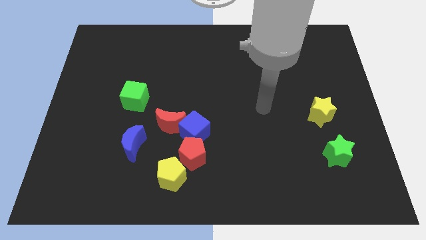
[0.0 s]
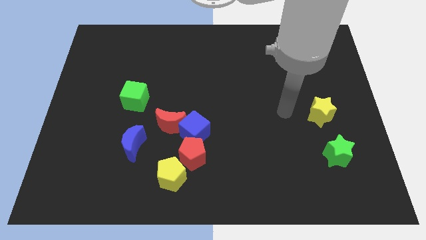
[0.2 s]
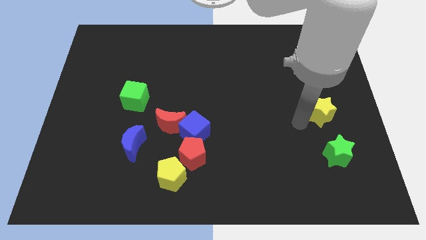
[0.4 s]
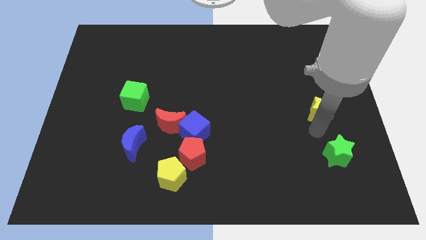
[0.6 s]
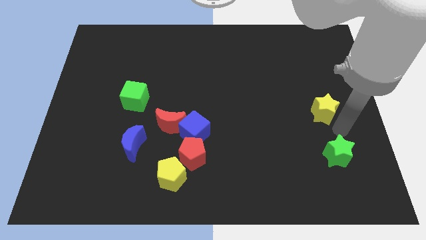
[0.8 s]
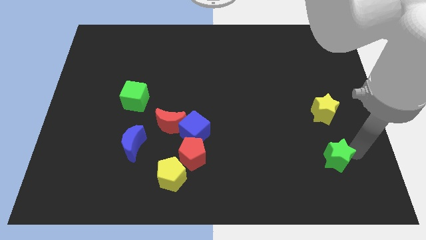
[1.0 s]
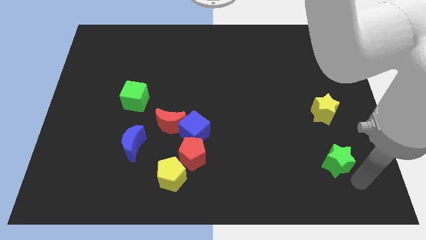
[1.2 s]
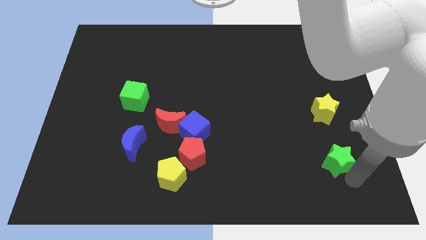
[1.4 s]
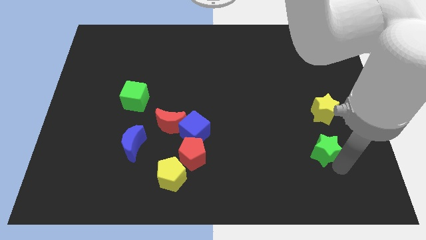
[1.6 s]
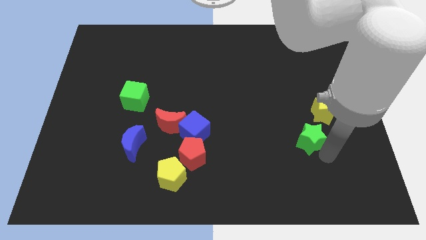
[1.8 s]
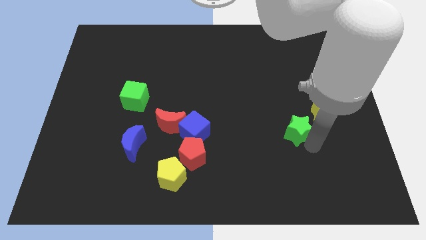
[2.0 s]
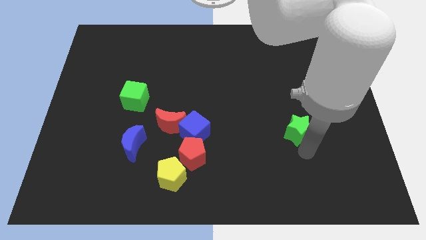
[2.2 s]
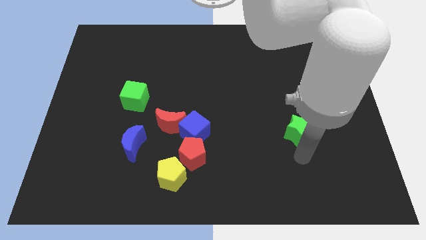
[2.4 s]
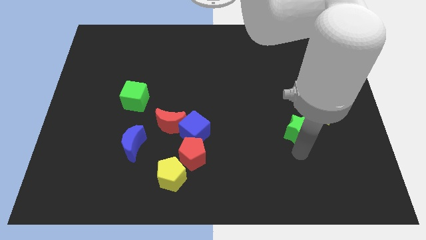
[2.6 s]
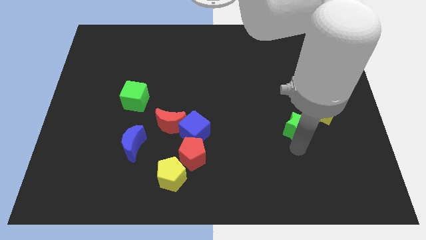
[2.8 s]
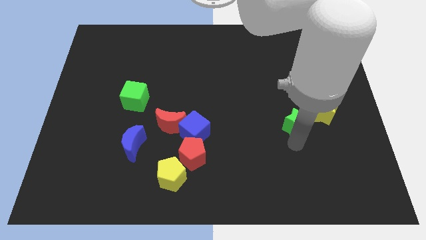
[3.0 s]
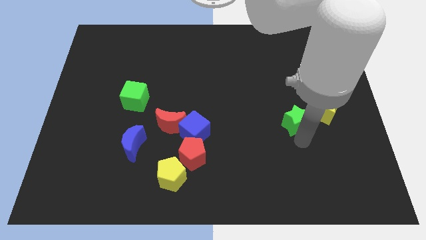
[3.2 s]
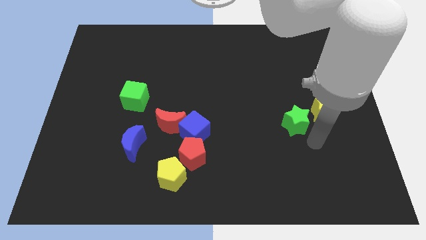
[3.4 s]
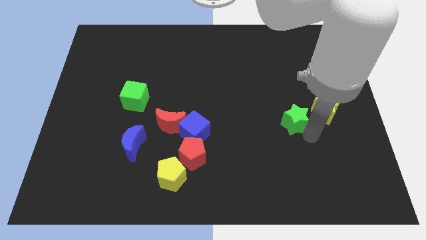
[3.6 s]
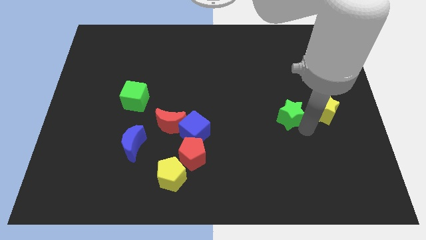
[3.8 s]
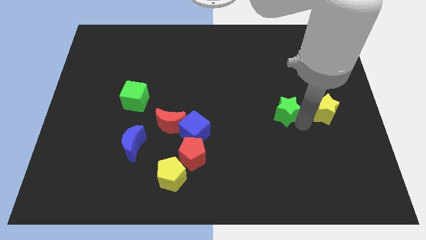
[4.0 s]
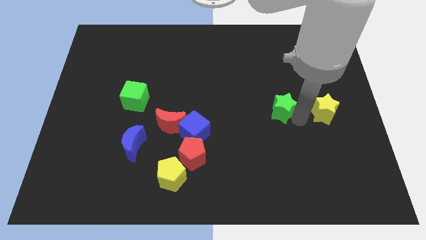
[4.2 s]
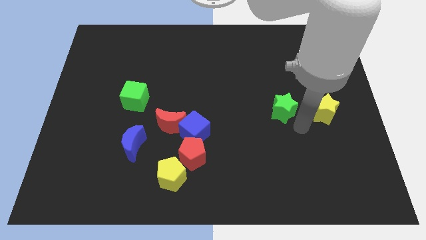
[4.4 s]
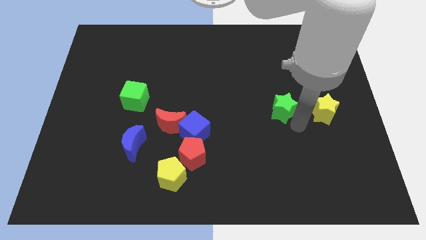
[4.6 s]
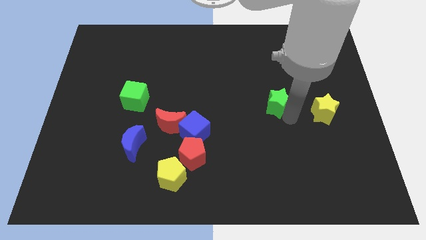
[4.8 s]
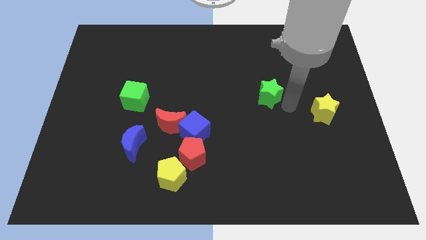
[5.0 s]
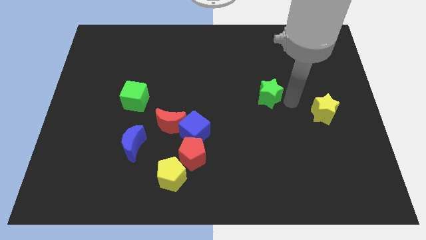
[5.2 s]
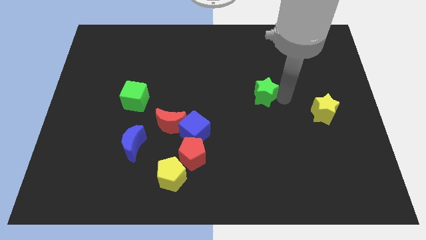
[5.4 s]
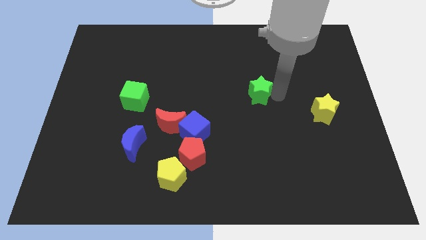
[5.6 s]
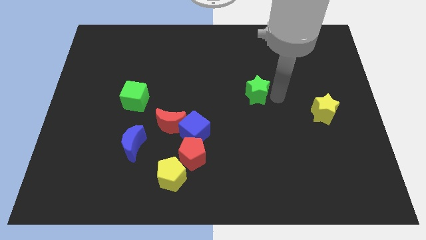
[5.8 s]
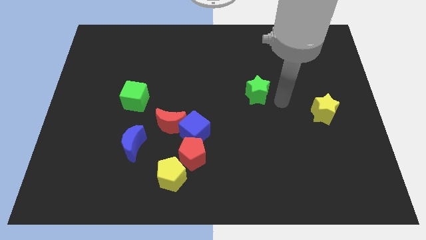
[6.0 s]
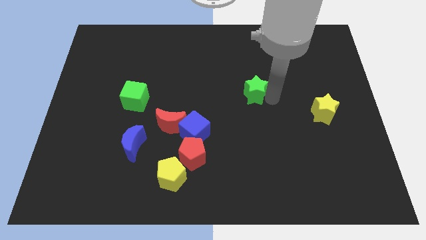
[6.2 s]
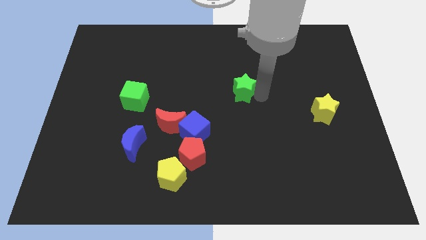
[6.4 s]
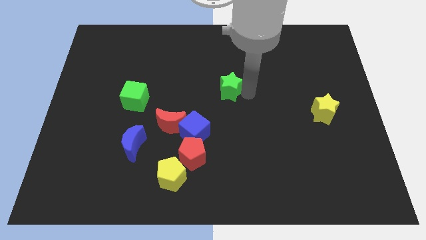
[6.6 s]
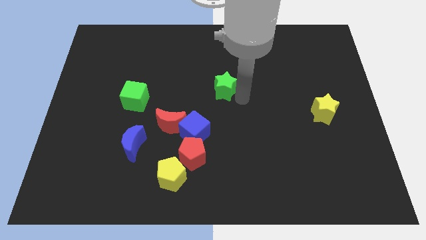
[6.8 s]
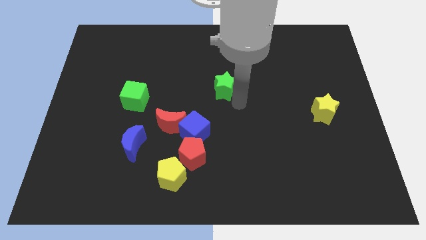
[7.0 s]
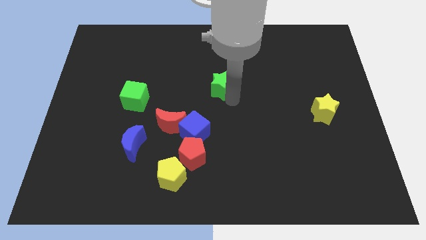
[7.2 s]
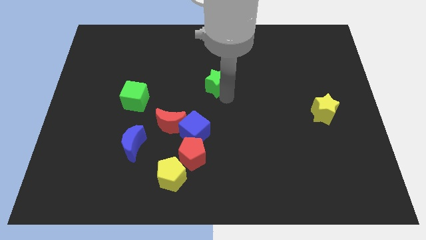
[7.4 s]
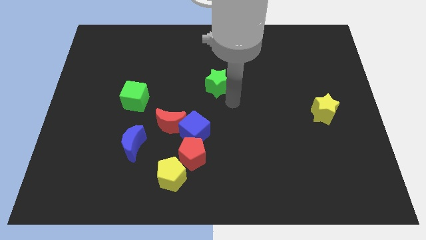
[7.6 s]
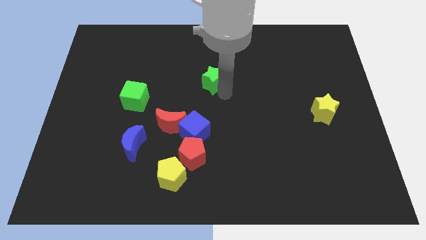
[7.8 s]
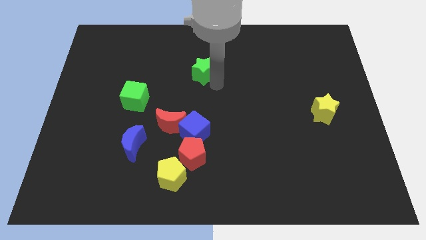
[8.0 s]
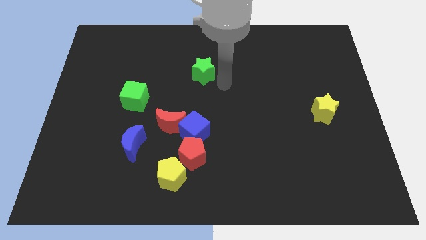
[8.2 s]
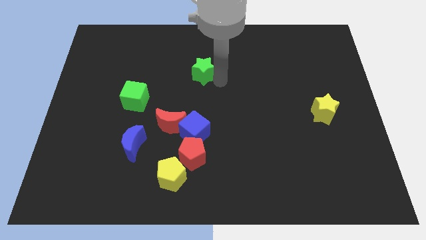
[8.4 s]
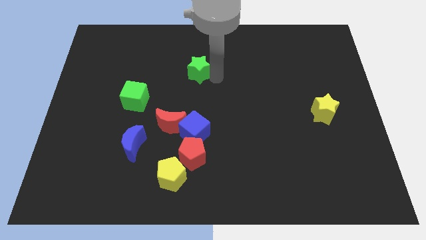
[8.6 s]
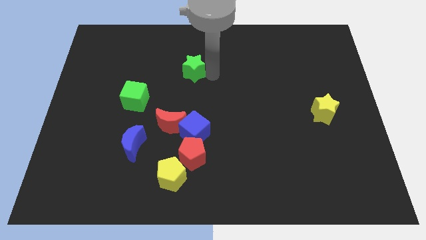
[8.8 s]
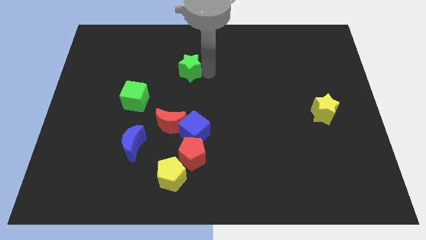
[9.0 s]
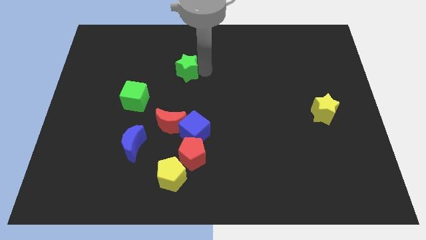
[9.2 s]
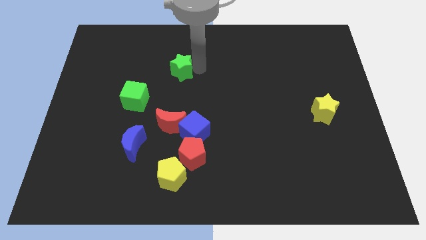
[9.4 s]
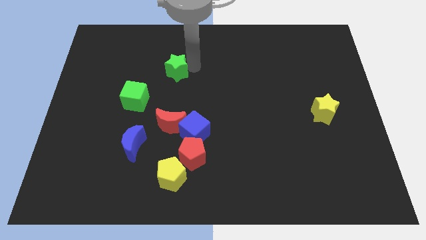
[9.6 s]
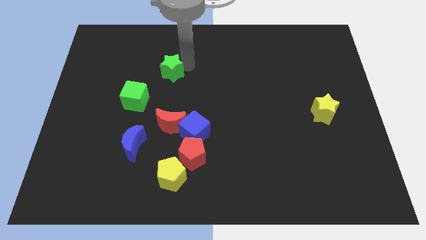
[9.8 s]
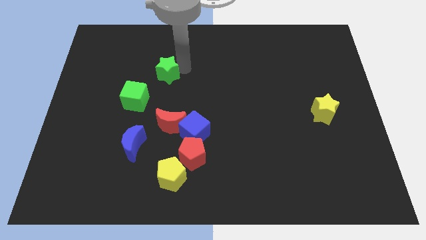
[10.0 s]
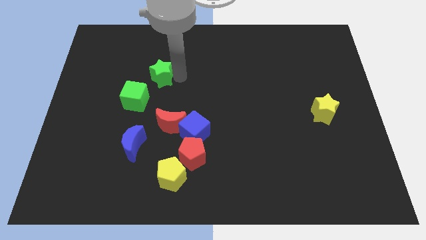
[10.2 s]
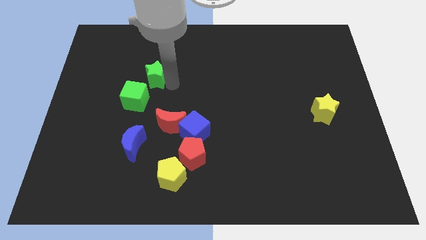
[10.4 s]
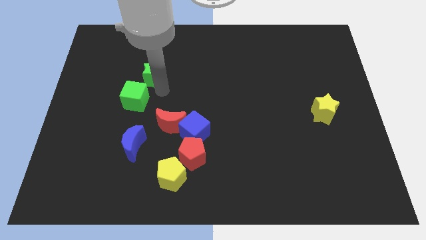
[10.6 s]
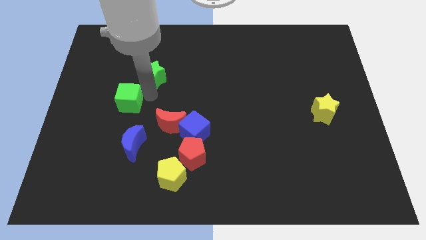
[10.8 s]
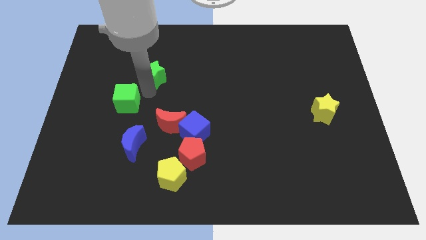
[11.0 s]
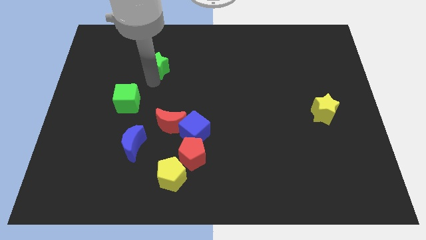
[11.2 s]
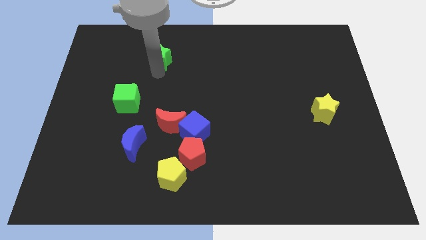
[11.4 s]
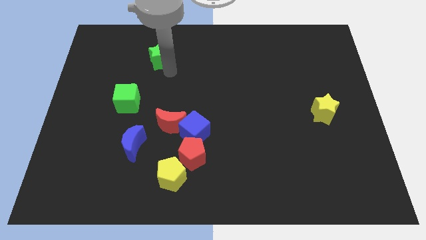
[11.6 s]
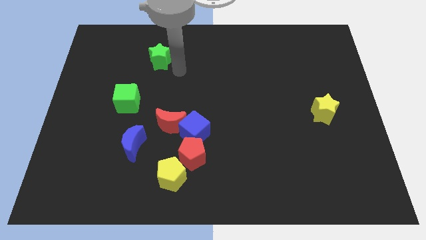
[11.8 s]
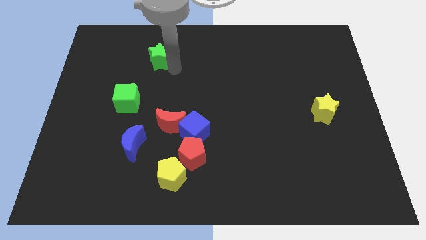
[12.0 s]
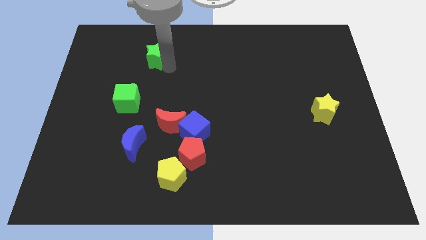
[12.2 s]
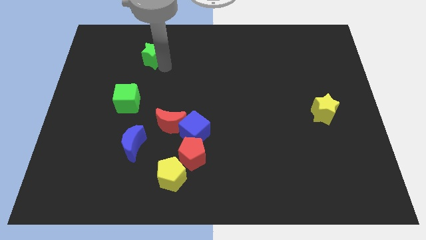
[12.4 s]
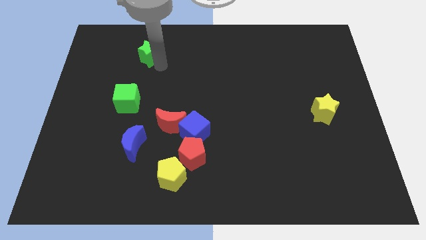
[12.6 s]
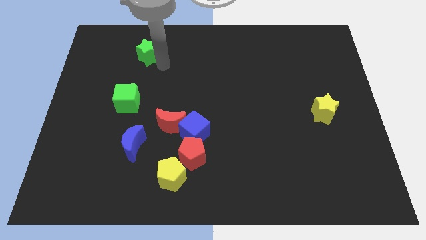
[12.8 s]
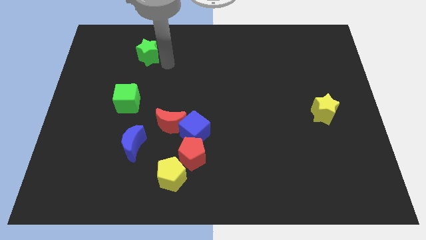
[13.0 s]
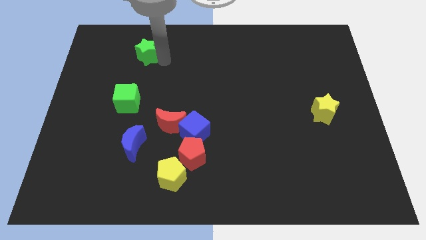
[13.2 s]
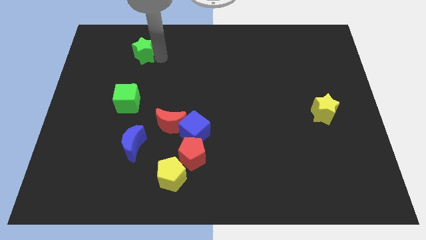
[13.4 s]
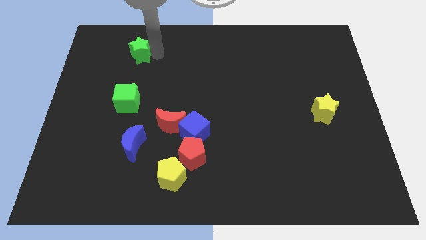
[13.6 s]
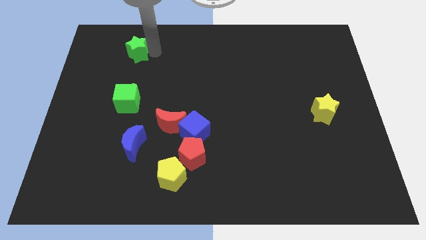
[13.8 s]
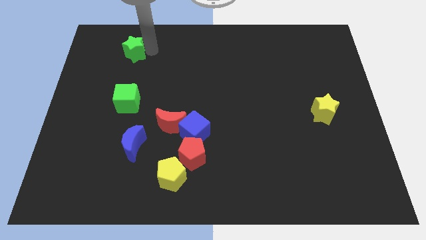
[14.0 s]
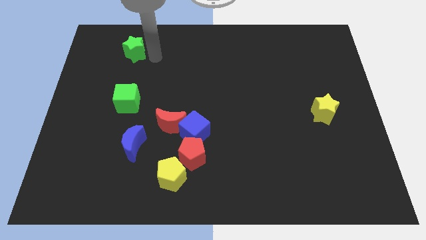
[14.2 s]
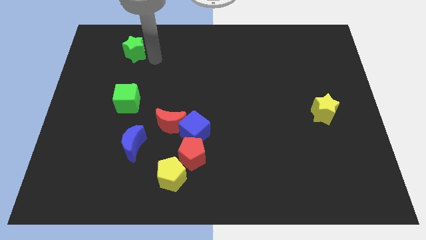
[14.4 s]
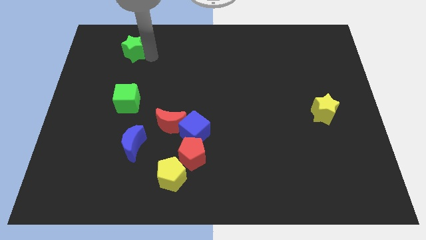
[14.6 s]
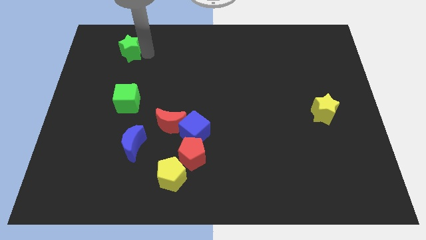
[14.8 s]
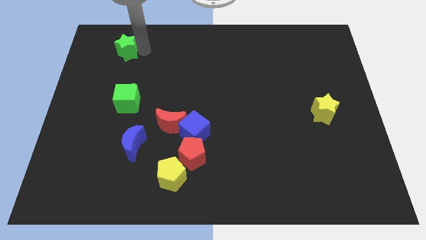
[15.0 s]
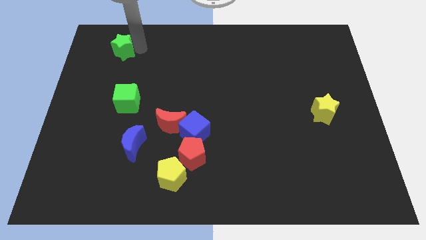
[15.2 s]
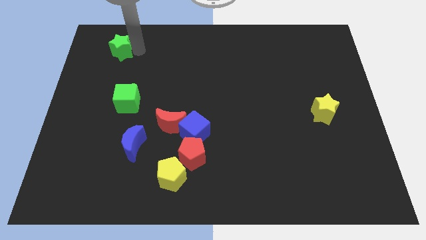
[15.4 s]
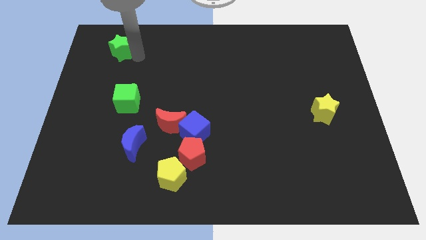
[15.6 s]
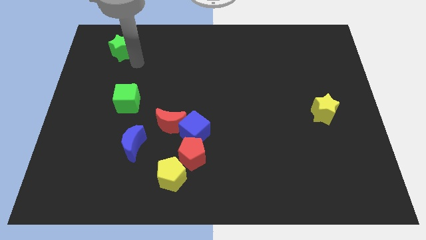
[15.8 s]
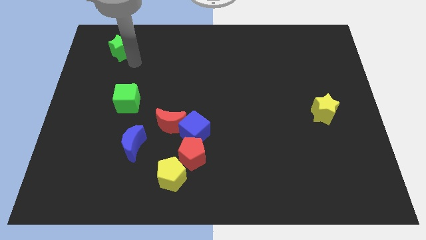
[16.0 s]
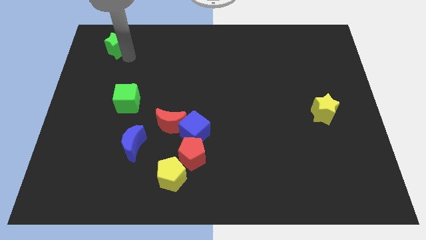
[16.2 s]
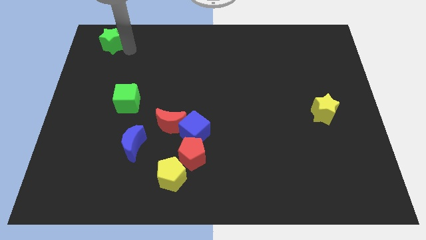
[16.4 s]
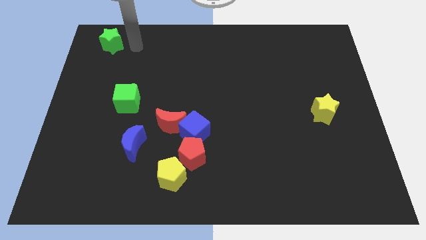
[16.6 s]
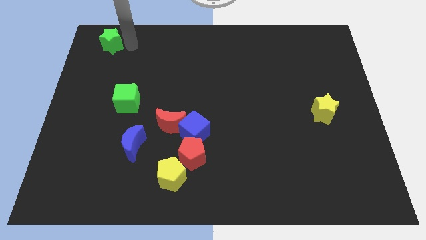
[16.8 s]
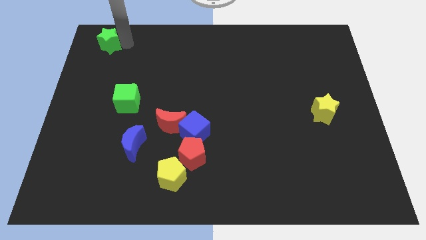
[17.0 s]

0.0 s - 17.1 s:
move the green star to the top left
